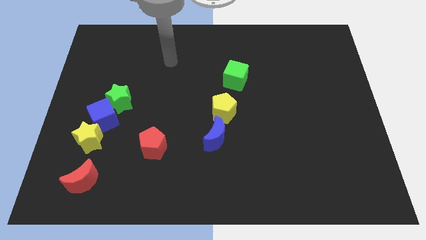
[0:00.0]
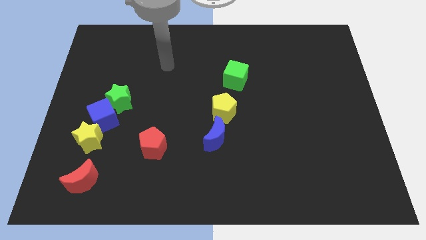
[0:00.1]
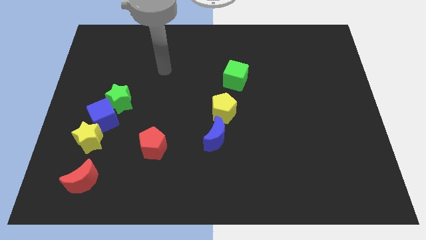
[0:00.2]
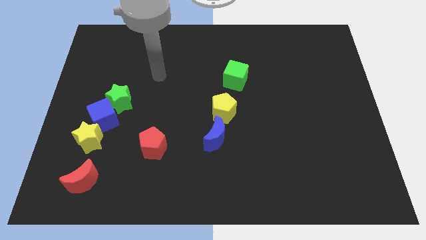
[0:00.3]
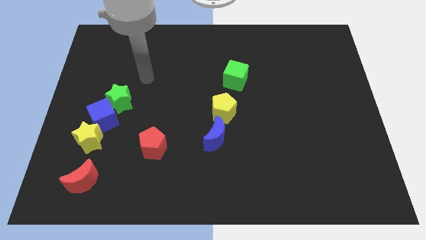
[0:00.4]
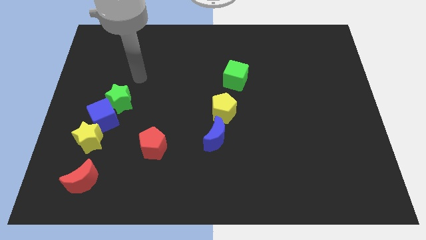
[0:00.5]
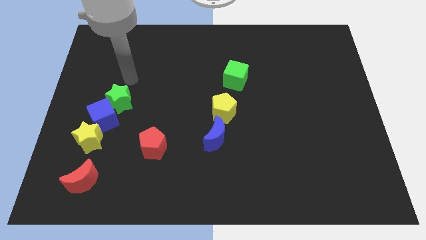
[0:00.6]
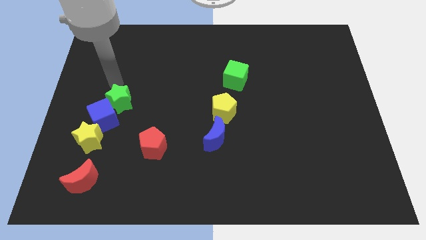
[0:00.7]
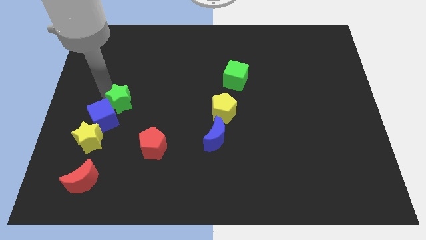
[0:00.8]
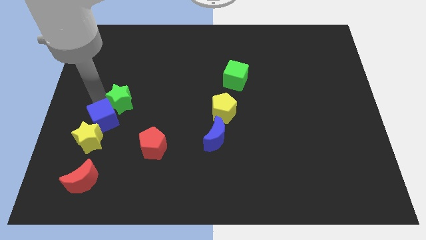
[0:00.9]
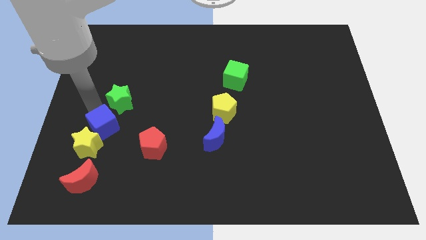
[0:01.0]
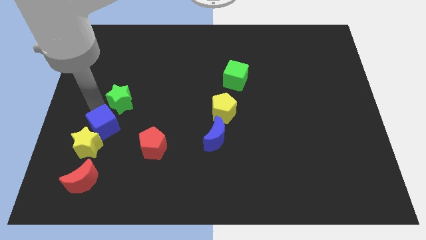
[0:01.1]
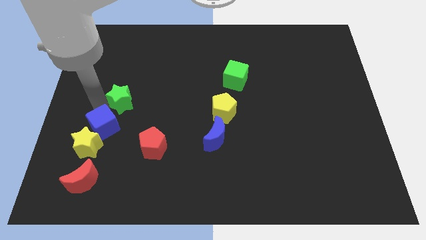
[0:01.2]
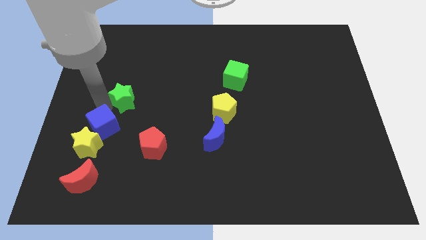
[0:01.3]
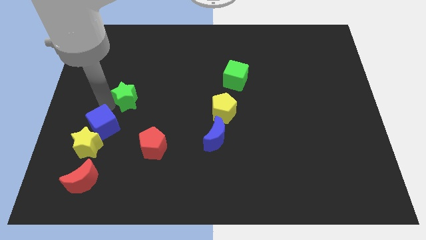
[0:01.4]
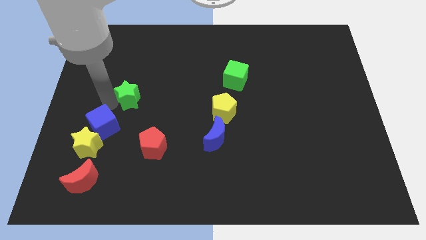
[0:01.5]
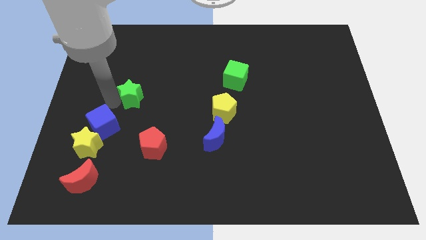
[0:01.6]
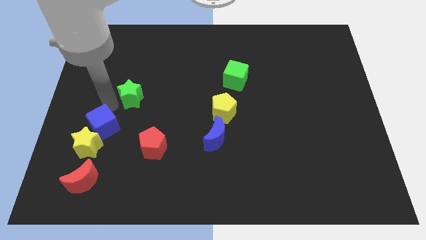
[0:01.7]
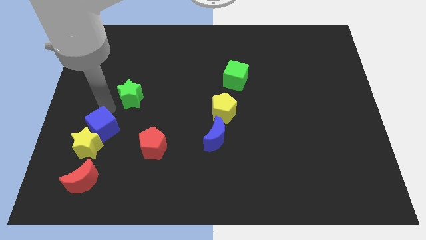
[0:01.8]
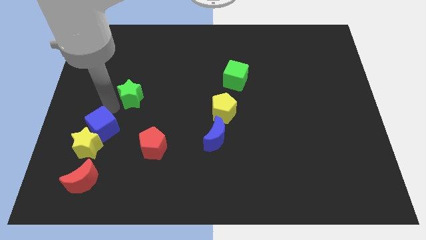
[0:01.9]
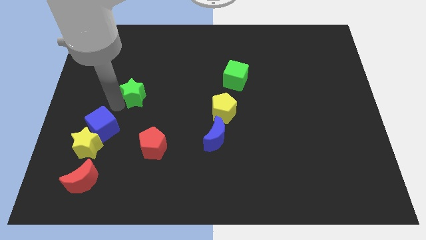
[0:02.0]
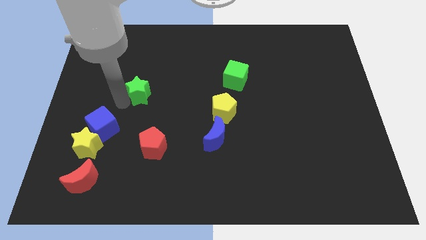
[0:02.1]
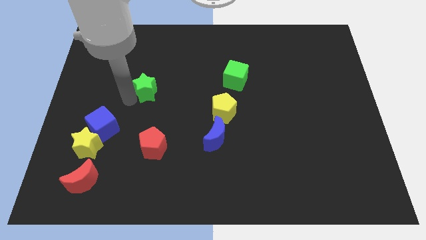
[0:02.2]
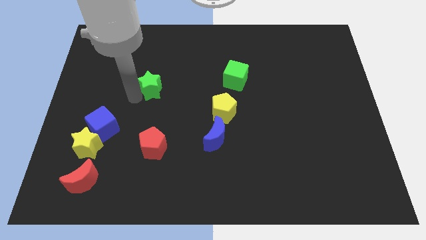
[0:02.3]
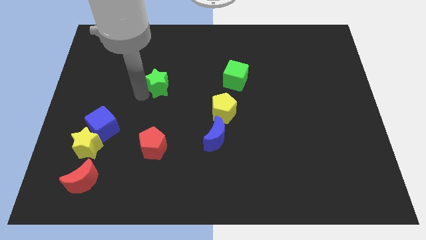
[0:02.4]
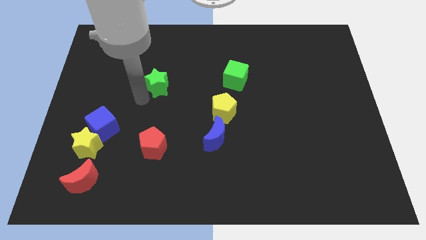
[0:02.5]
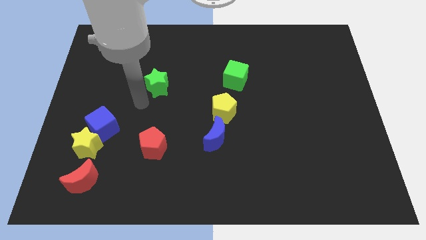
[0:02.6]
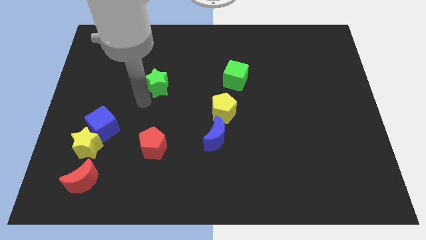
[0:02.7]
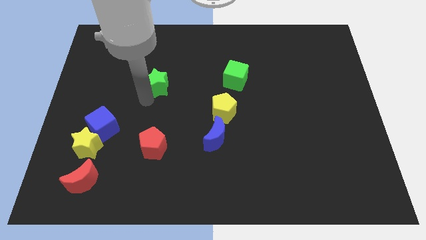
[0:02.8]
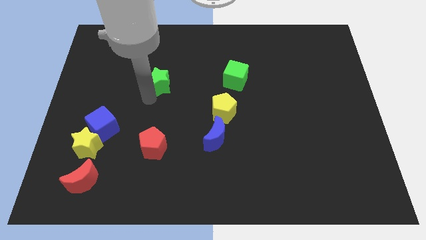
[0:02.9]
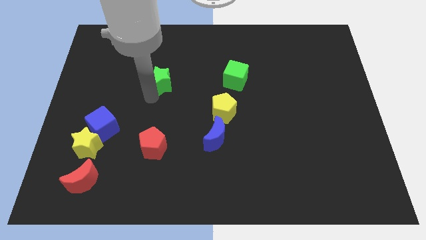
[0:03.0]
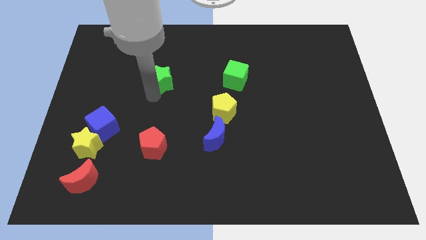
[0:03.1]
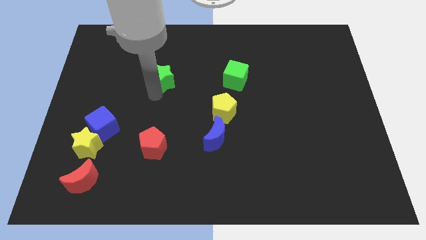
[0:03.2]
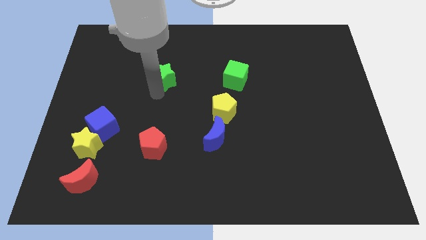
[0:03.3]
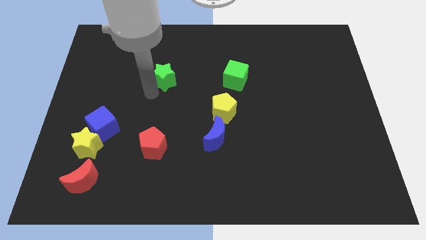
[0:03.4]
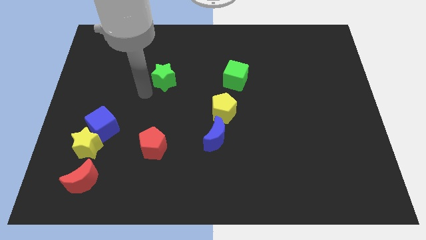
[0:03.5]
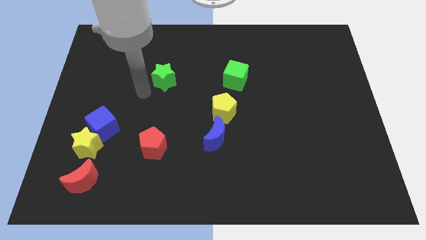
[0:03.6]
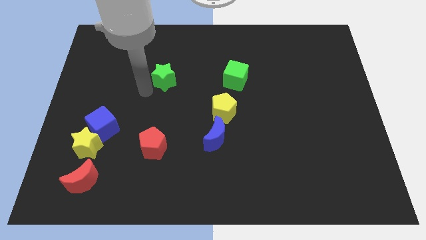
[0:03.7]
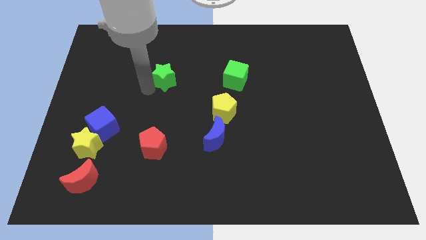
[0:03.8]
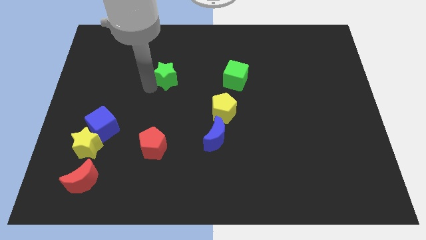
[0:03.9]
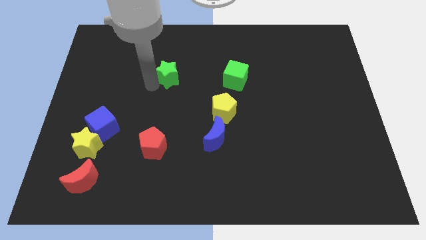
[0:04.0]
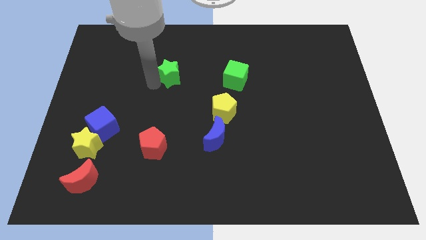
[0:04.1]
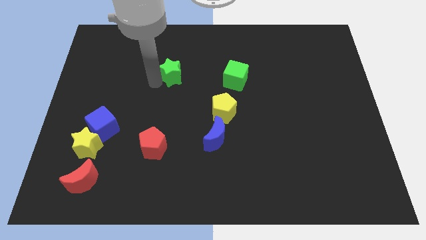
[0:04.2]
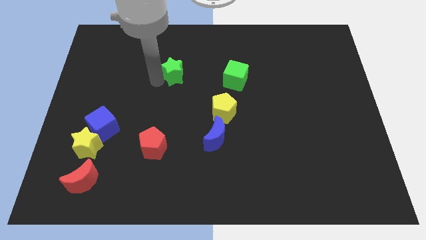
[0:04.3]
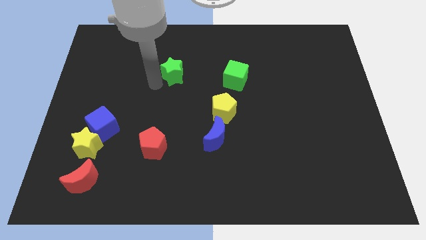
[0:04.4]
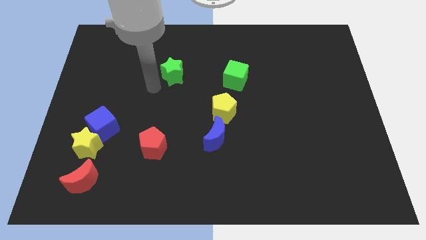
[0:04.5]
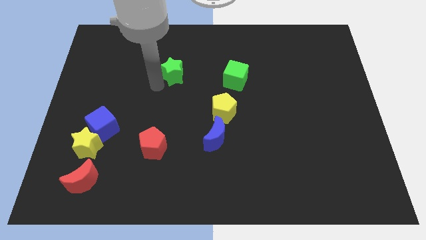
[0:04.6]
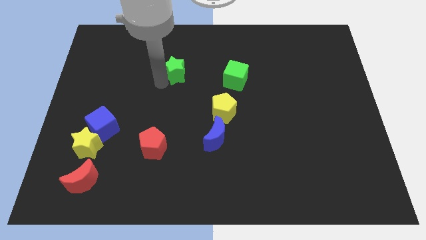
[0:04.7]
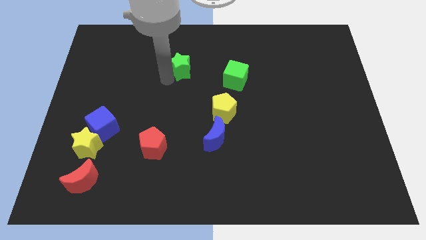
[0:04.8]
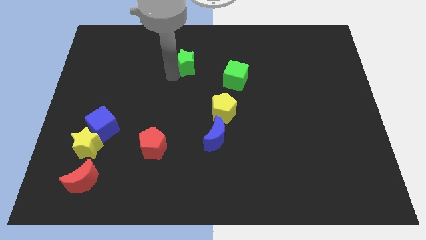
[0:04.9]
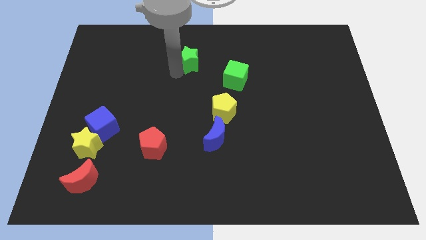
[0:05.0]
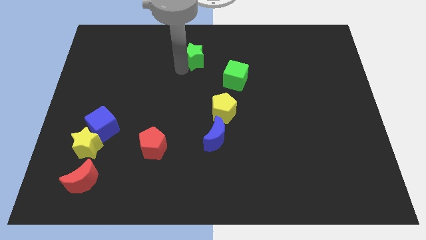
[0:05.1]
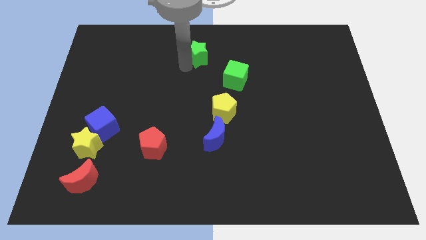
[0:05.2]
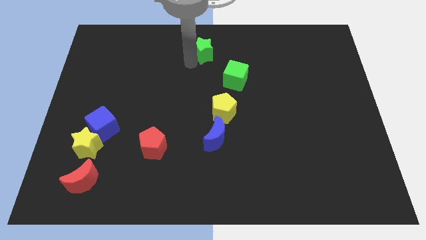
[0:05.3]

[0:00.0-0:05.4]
move the green star to the top side

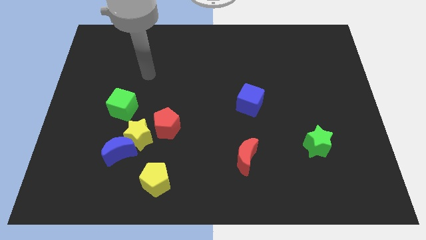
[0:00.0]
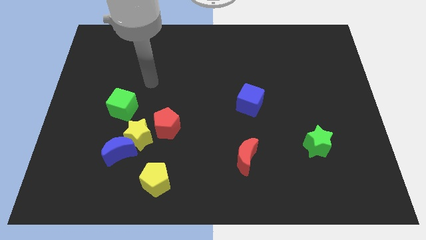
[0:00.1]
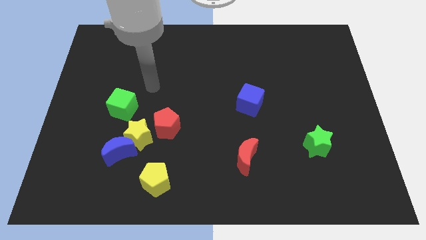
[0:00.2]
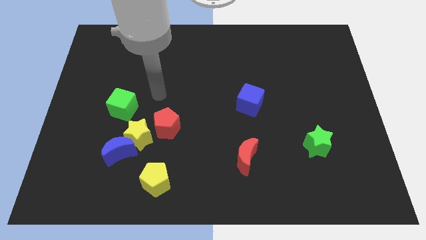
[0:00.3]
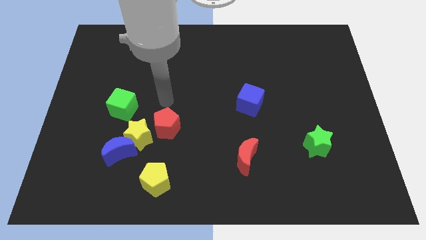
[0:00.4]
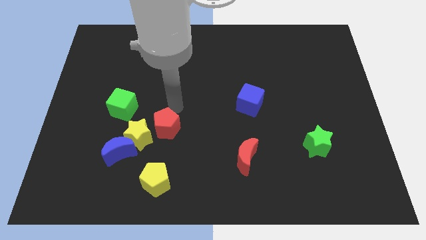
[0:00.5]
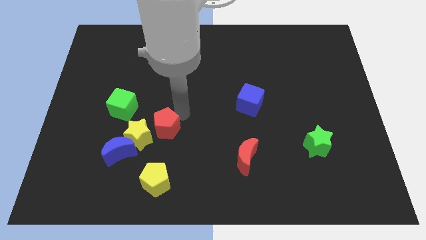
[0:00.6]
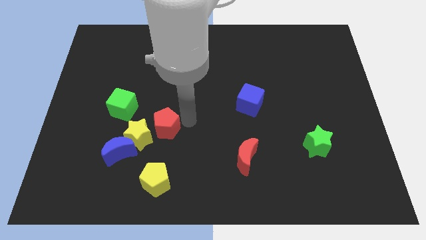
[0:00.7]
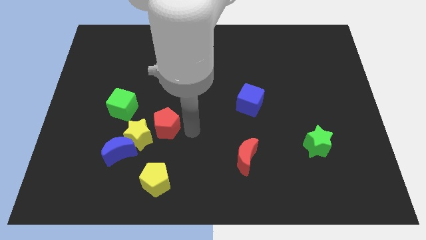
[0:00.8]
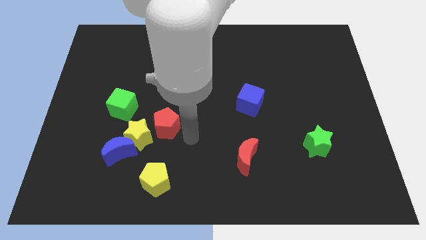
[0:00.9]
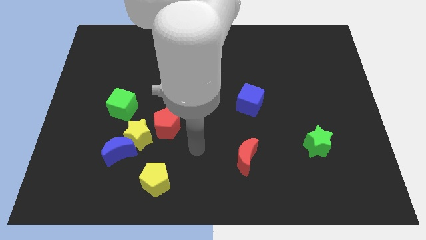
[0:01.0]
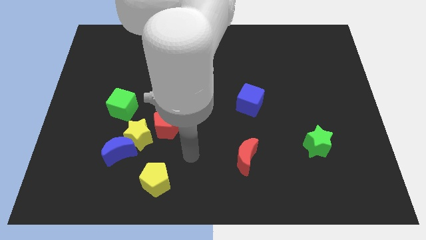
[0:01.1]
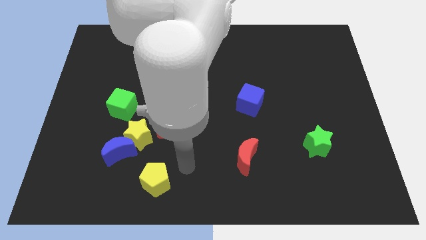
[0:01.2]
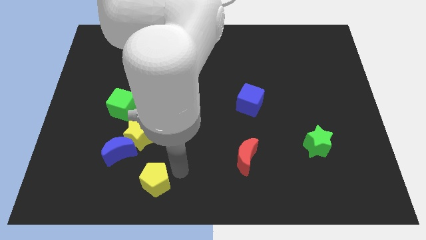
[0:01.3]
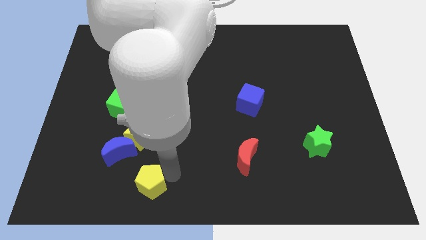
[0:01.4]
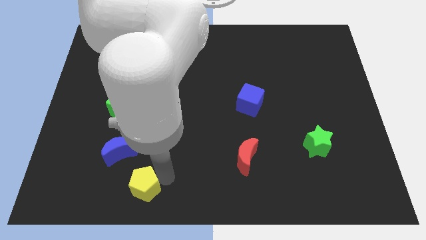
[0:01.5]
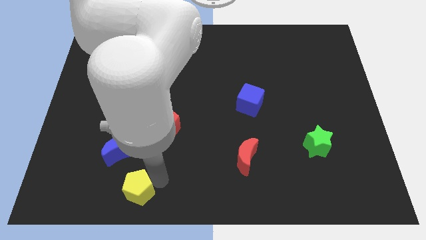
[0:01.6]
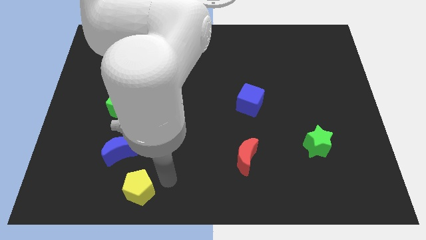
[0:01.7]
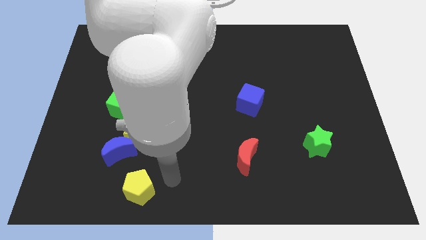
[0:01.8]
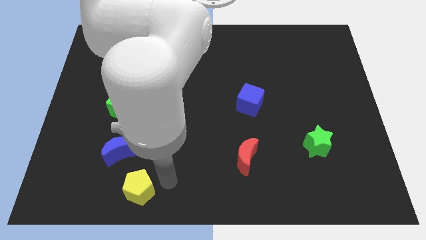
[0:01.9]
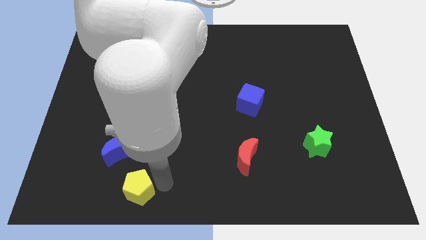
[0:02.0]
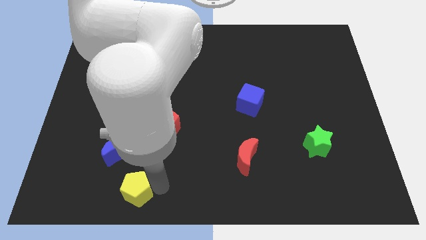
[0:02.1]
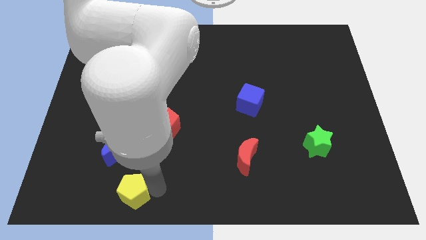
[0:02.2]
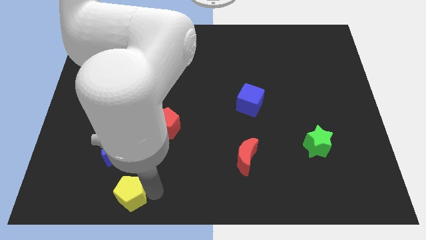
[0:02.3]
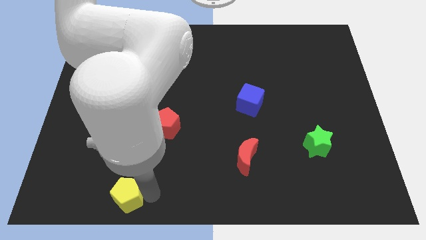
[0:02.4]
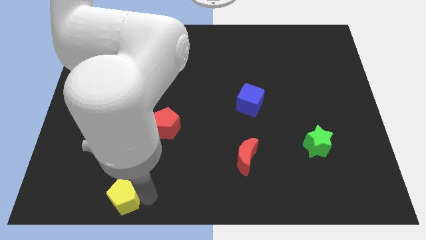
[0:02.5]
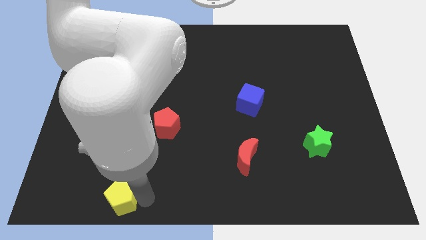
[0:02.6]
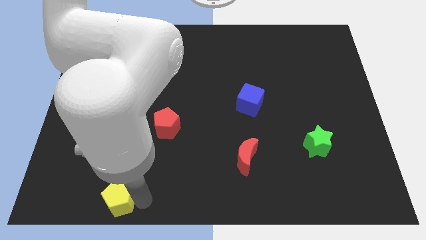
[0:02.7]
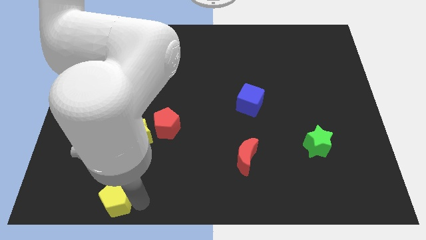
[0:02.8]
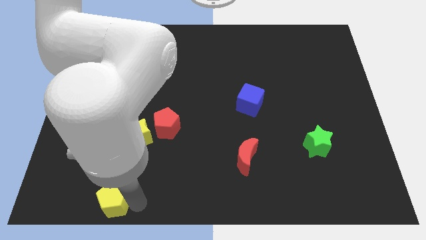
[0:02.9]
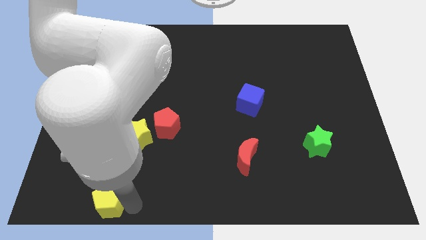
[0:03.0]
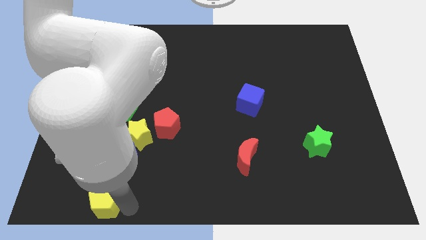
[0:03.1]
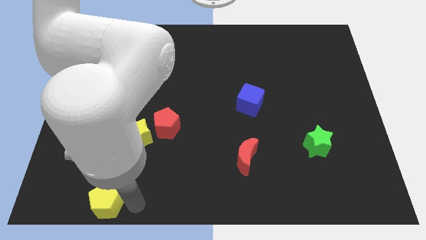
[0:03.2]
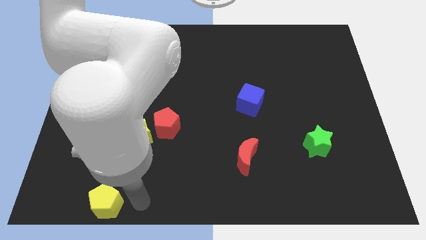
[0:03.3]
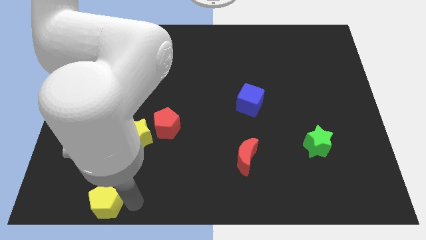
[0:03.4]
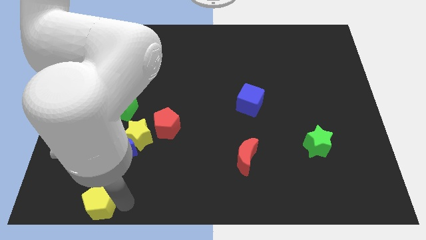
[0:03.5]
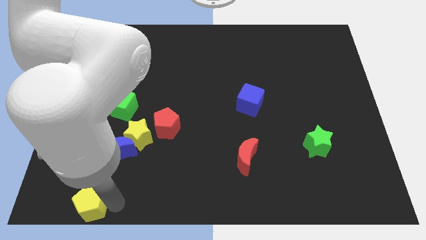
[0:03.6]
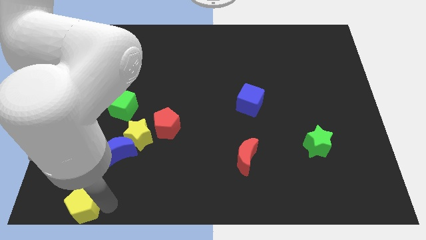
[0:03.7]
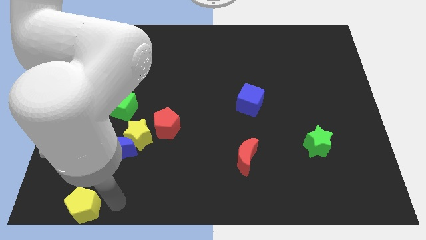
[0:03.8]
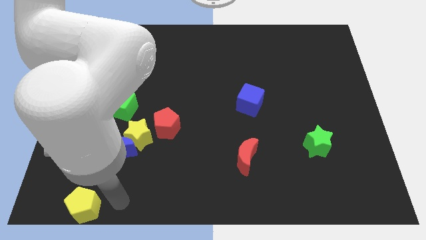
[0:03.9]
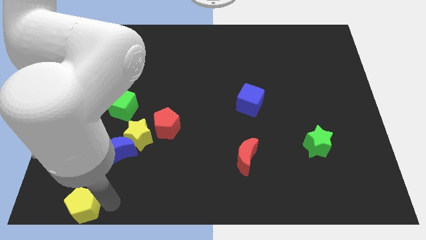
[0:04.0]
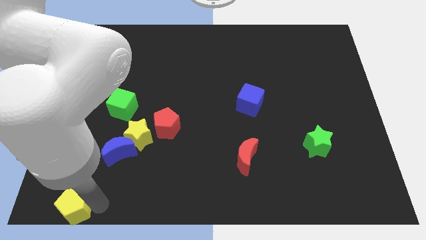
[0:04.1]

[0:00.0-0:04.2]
slide the yellow pentagon to the bottom left
